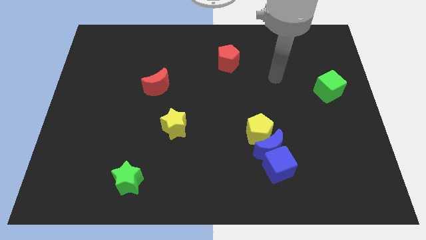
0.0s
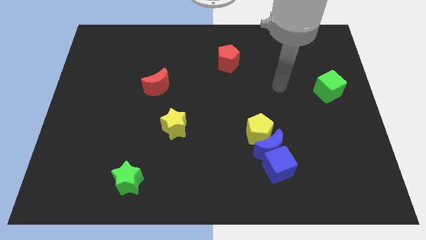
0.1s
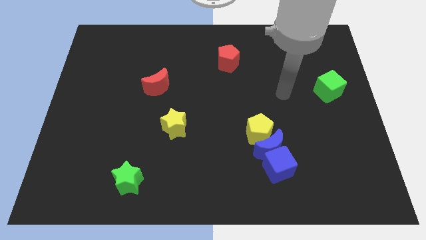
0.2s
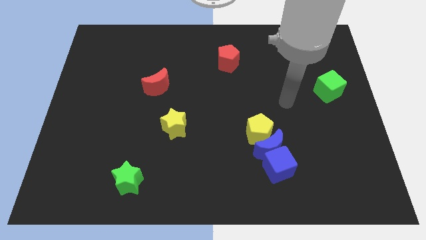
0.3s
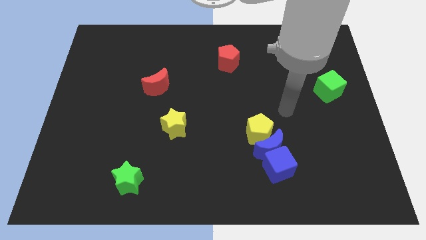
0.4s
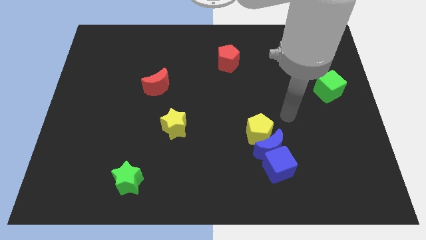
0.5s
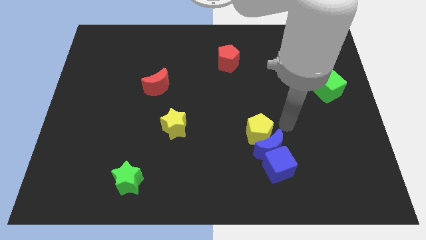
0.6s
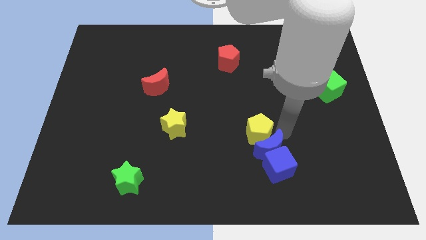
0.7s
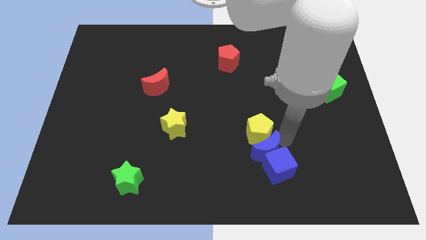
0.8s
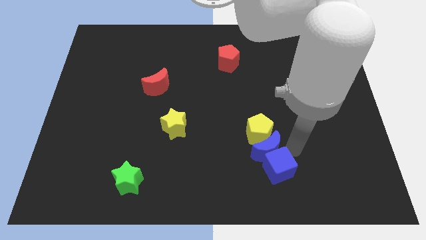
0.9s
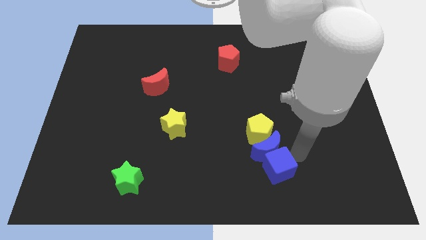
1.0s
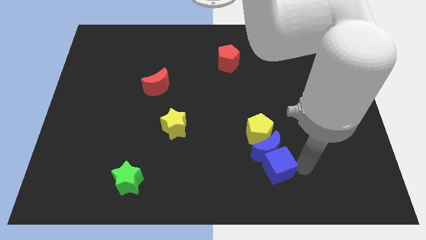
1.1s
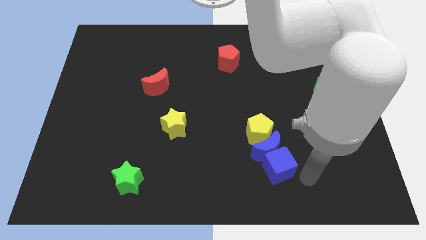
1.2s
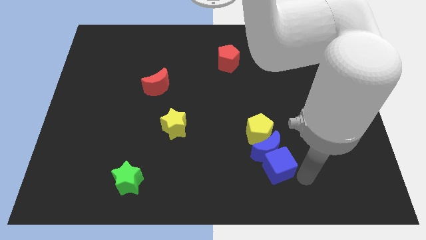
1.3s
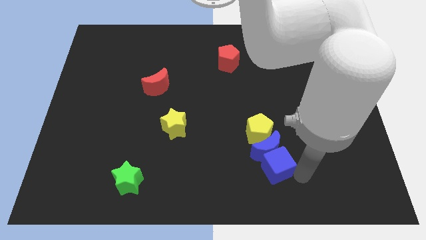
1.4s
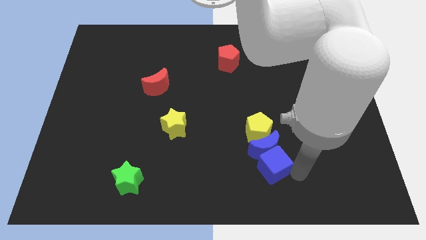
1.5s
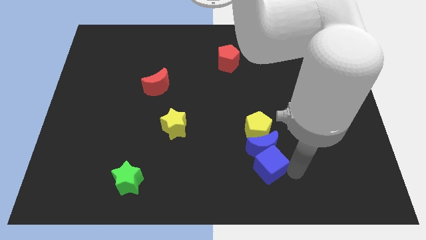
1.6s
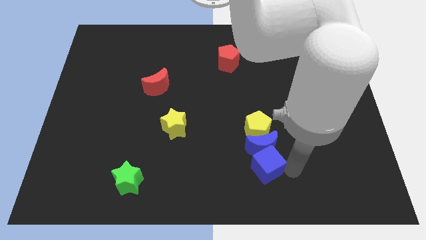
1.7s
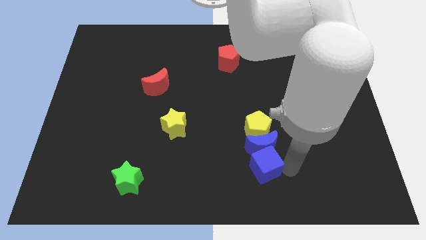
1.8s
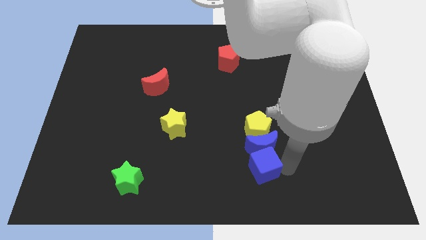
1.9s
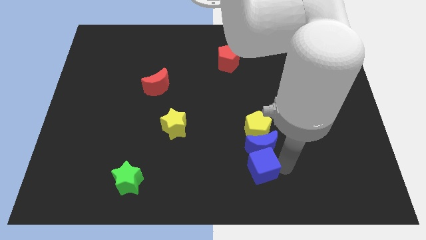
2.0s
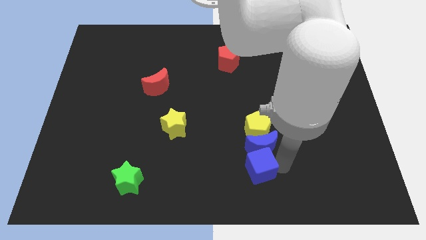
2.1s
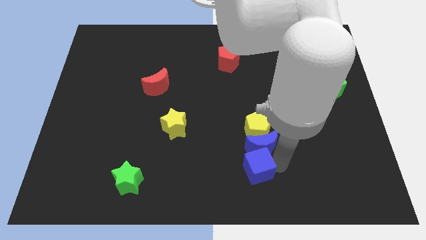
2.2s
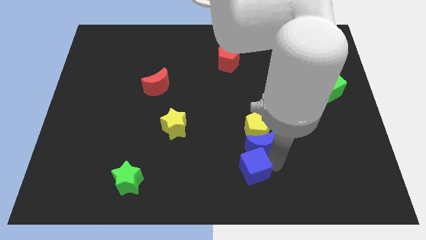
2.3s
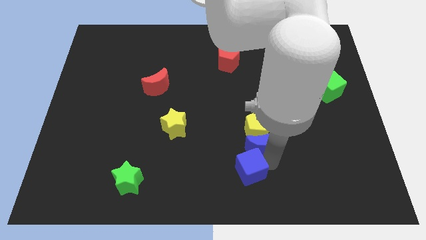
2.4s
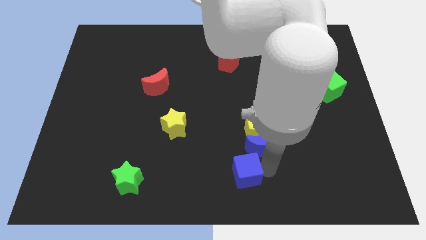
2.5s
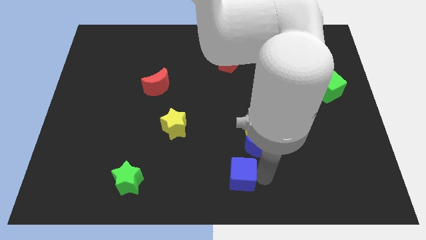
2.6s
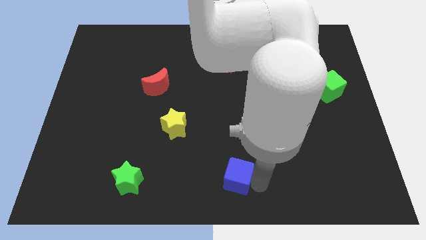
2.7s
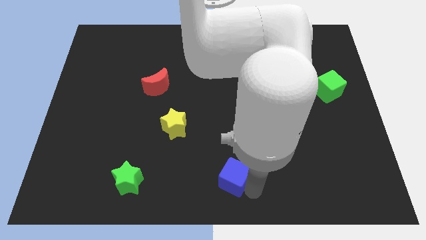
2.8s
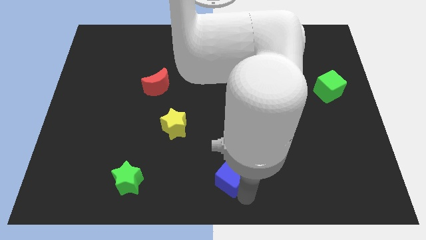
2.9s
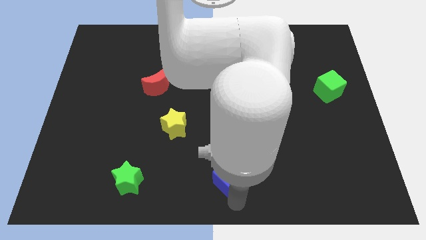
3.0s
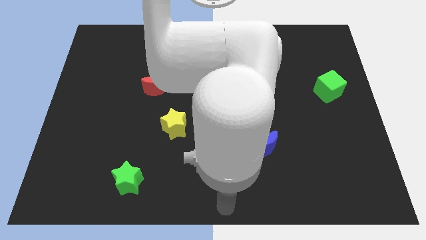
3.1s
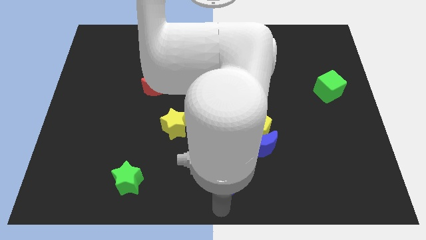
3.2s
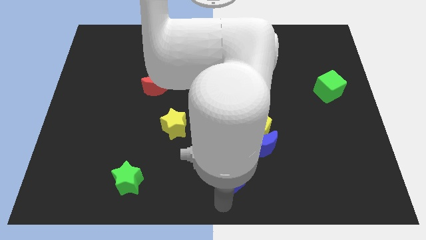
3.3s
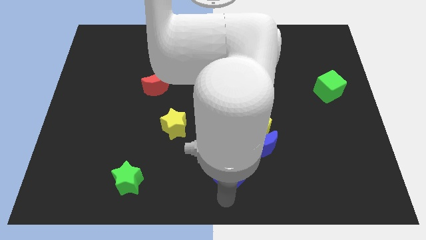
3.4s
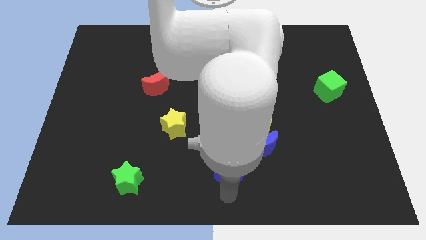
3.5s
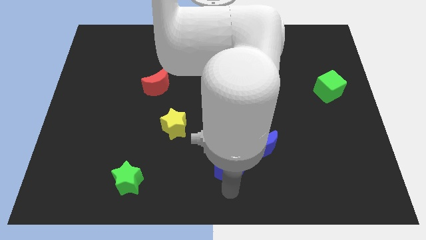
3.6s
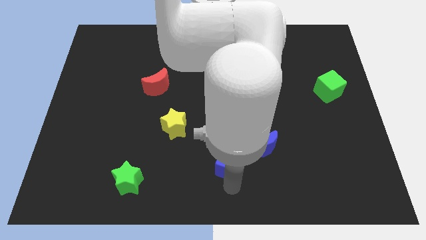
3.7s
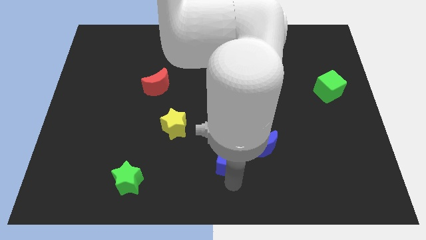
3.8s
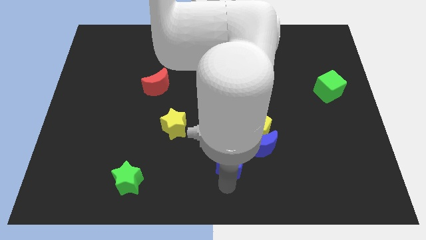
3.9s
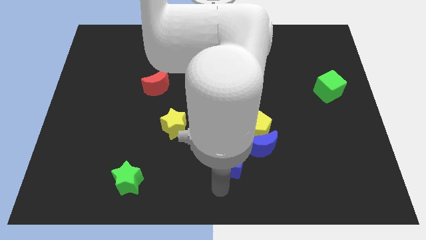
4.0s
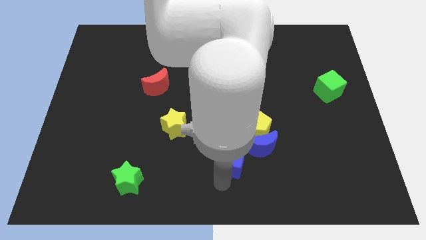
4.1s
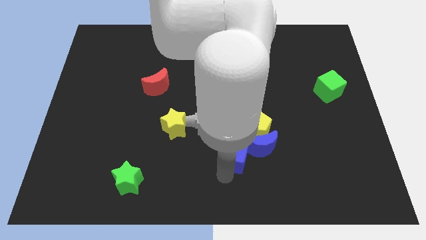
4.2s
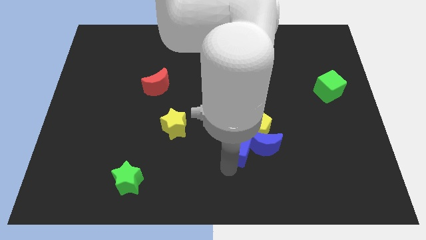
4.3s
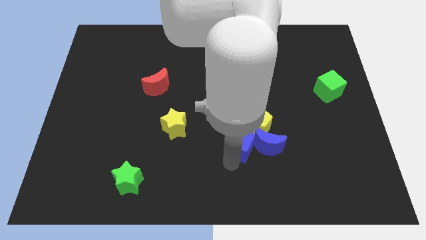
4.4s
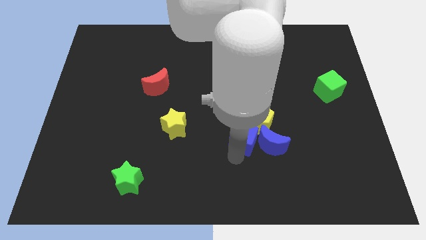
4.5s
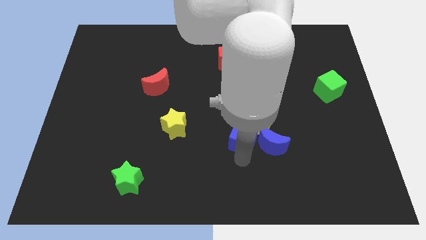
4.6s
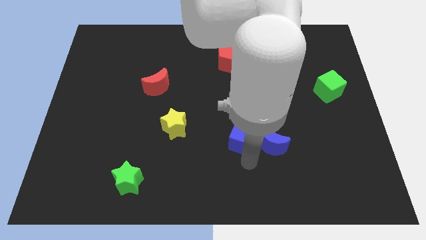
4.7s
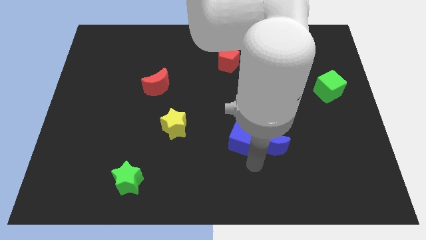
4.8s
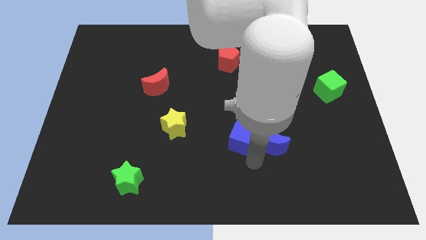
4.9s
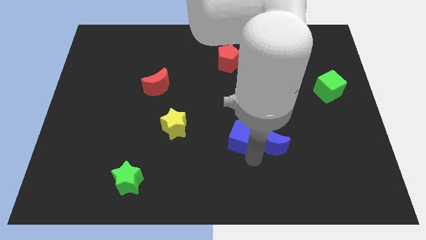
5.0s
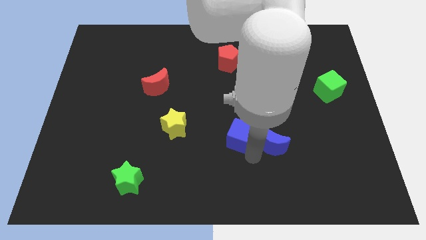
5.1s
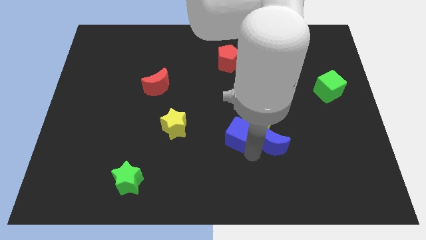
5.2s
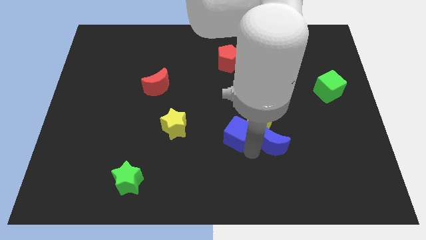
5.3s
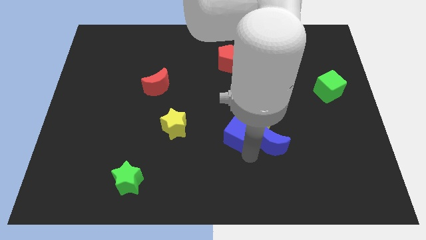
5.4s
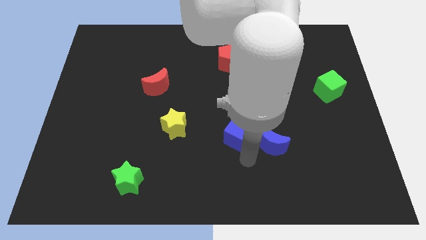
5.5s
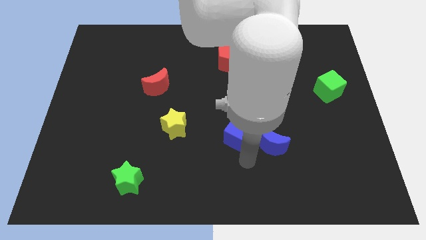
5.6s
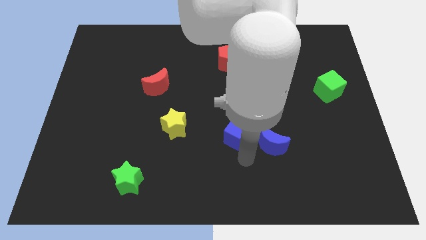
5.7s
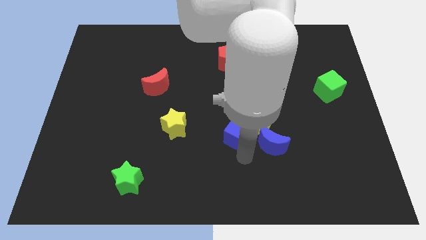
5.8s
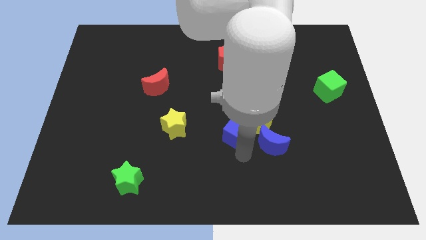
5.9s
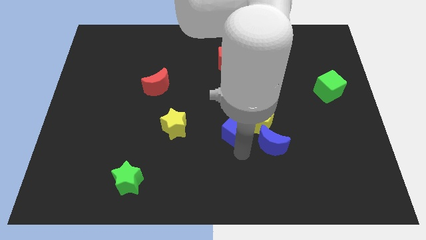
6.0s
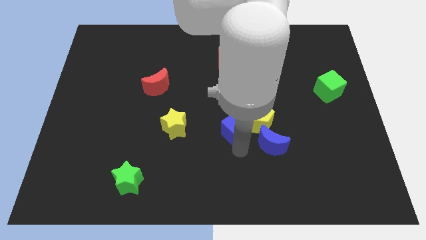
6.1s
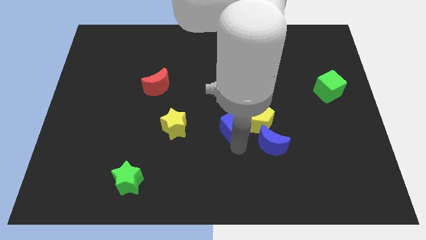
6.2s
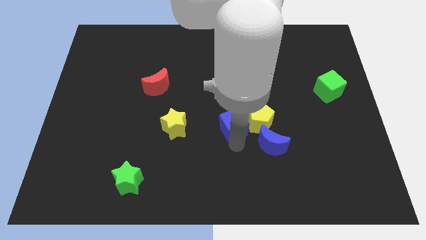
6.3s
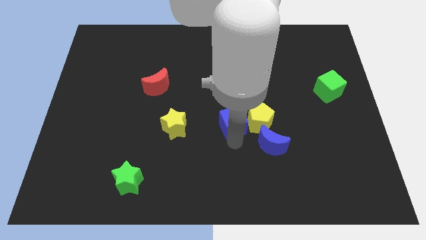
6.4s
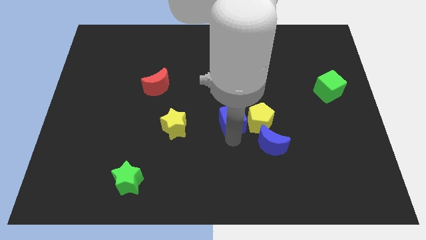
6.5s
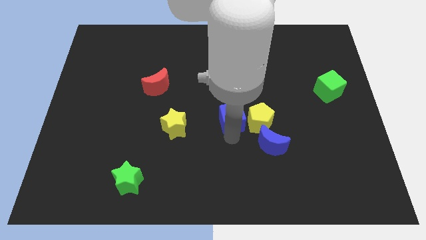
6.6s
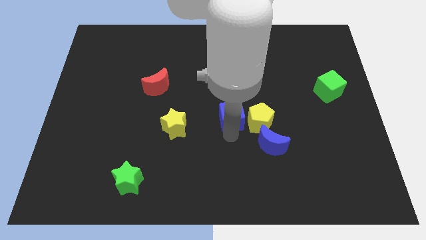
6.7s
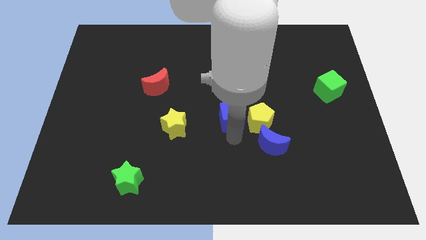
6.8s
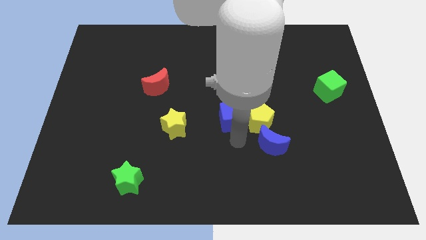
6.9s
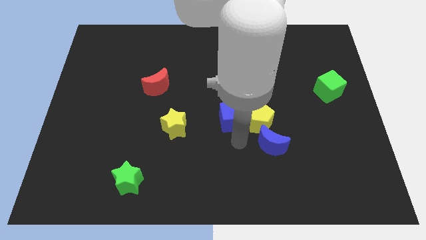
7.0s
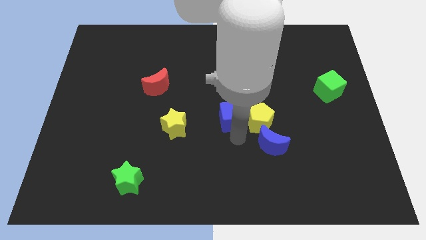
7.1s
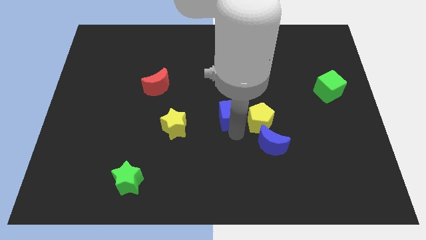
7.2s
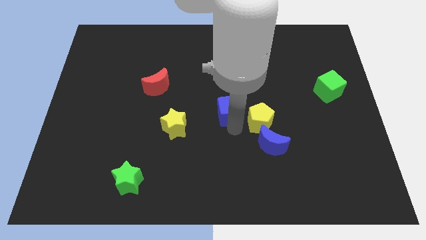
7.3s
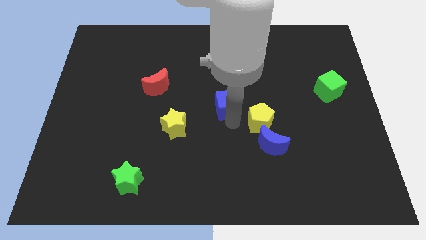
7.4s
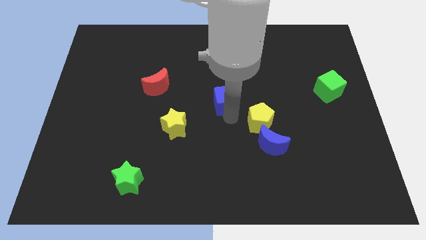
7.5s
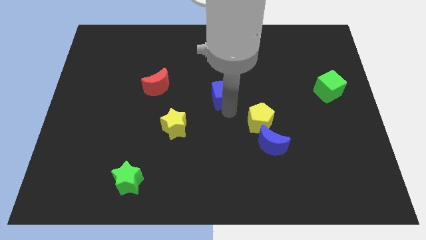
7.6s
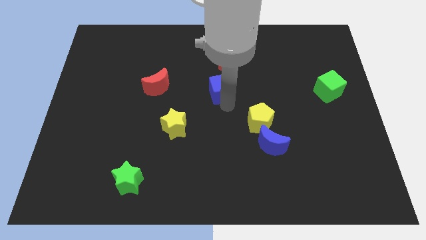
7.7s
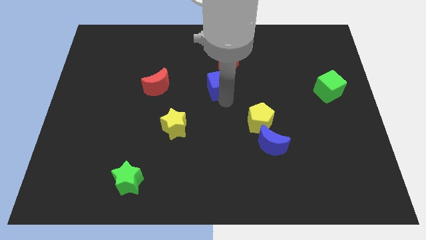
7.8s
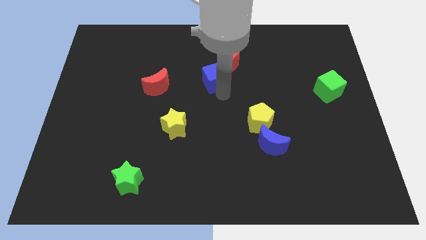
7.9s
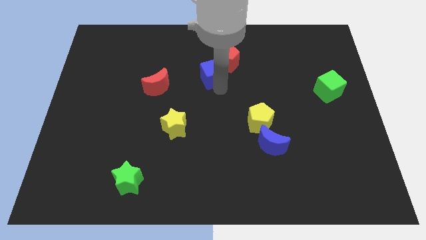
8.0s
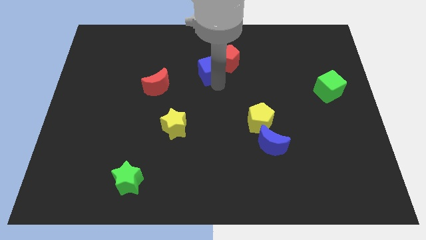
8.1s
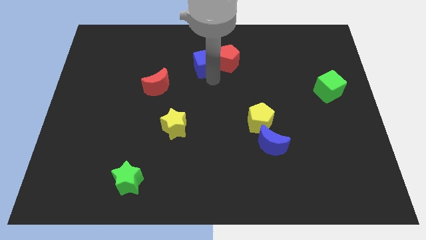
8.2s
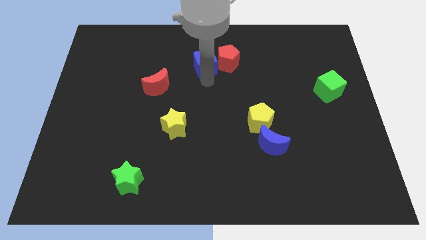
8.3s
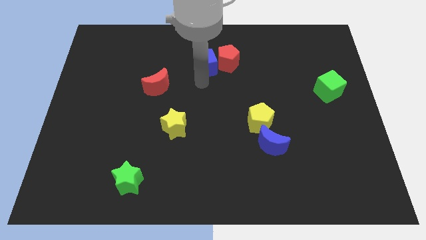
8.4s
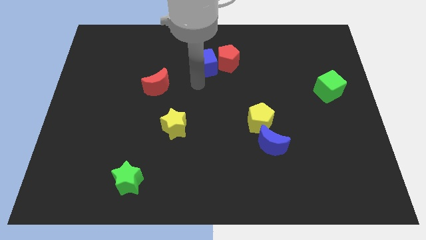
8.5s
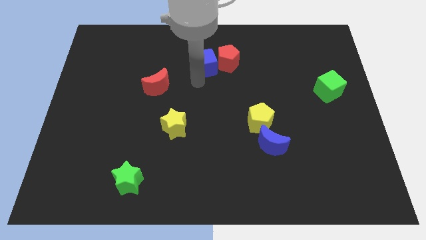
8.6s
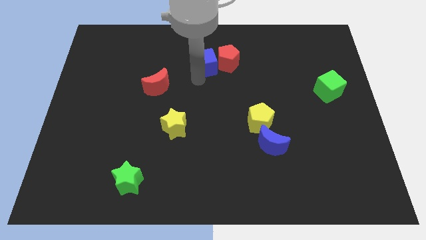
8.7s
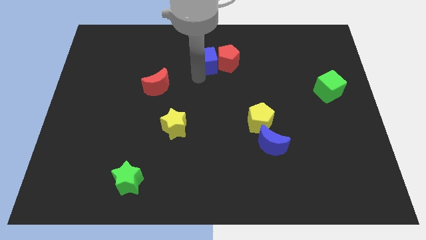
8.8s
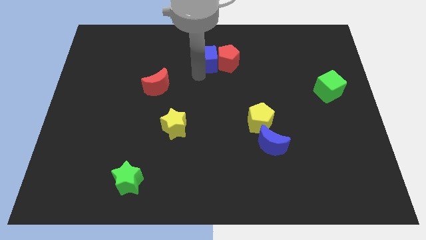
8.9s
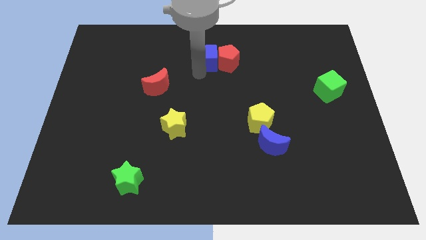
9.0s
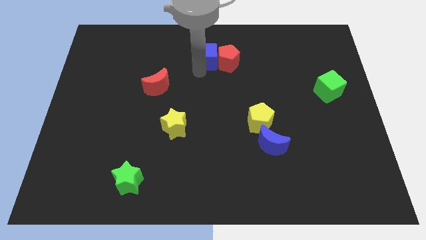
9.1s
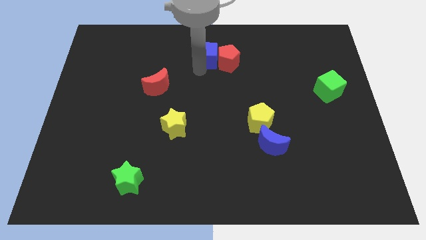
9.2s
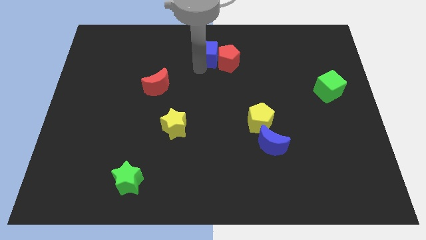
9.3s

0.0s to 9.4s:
move the blue cube to the towards your base
